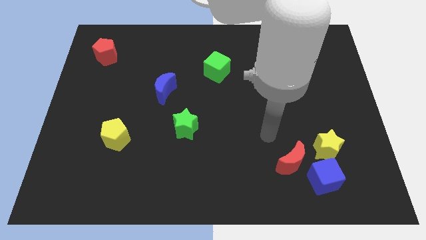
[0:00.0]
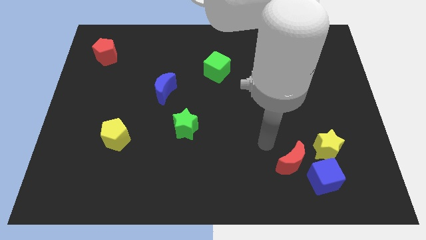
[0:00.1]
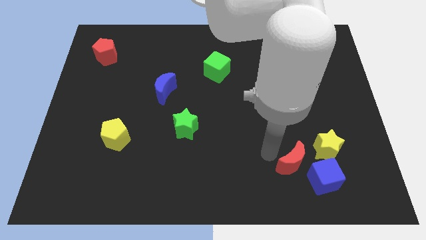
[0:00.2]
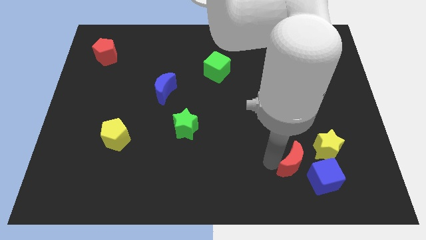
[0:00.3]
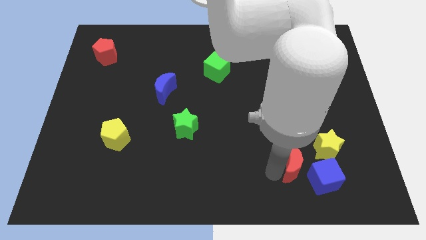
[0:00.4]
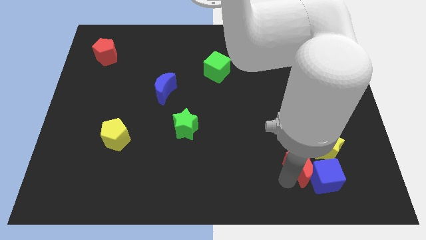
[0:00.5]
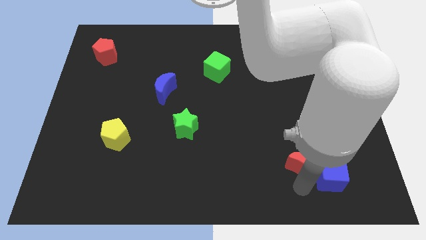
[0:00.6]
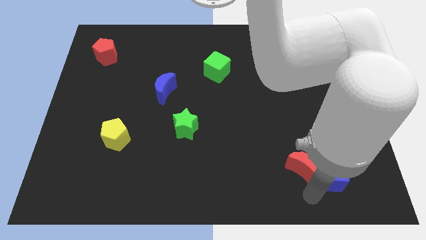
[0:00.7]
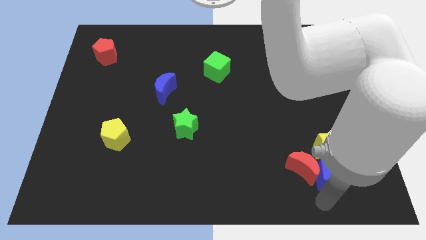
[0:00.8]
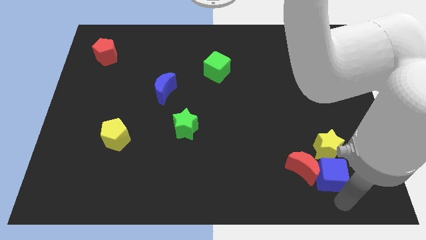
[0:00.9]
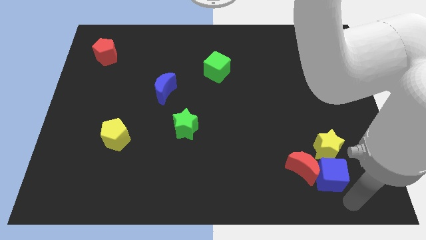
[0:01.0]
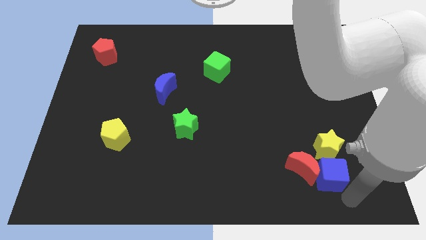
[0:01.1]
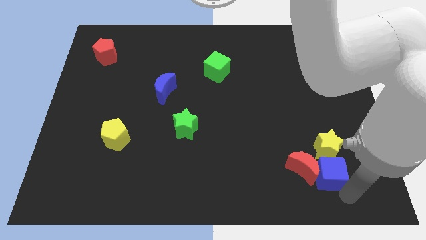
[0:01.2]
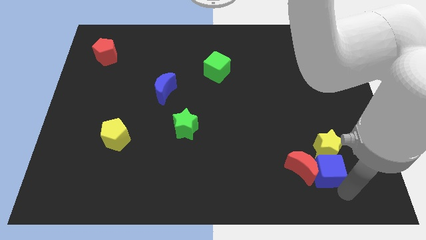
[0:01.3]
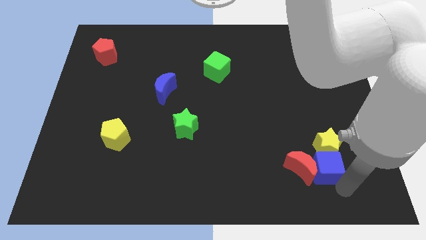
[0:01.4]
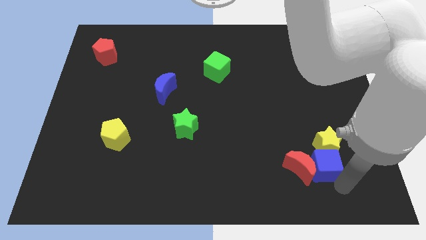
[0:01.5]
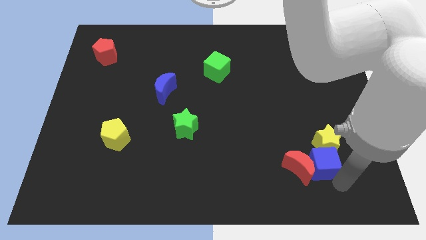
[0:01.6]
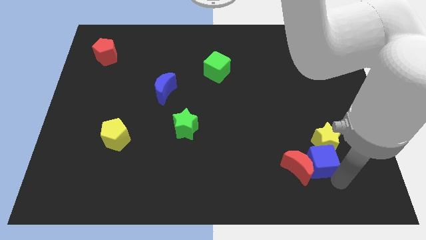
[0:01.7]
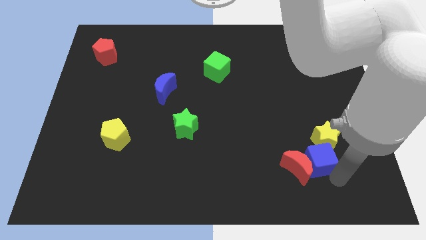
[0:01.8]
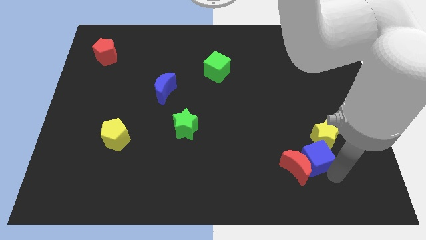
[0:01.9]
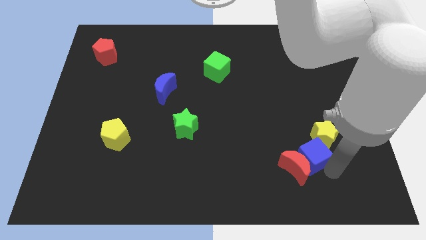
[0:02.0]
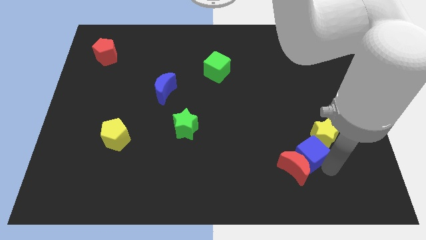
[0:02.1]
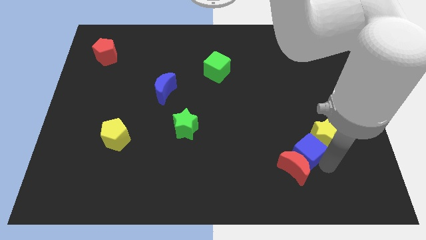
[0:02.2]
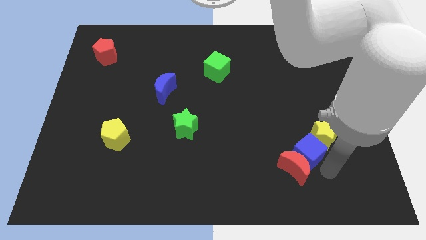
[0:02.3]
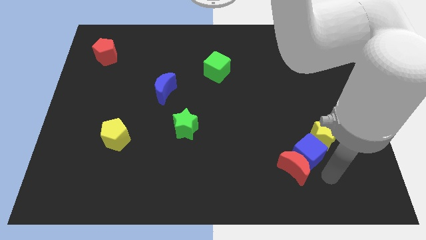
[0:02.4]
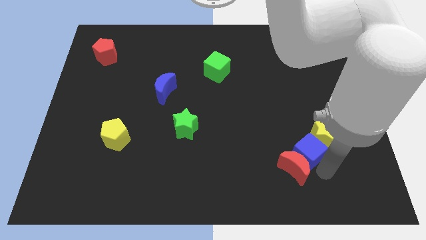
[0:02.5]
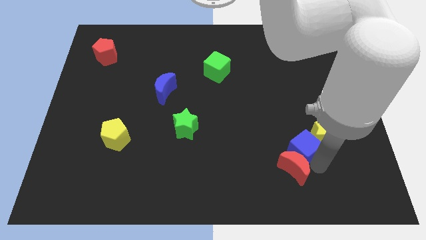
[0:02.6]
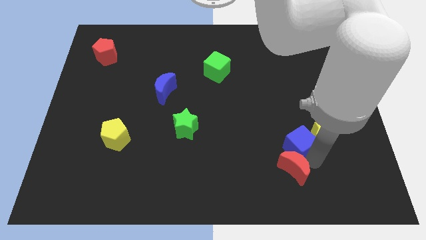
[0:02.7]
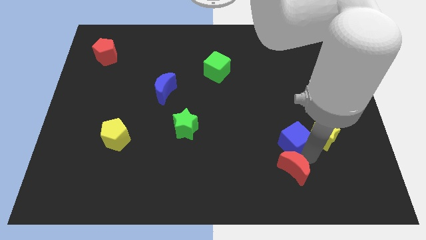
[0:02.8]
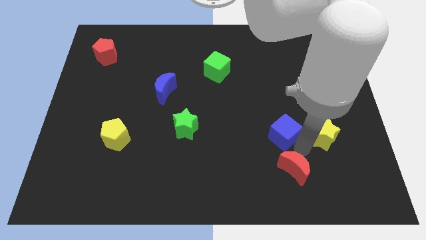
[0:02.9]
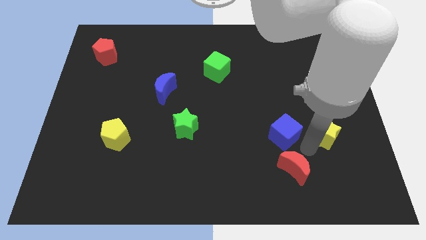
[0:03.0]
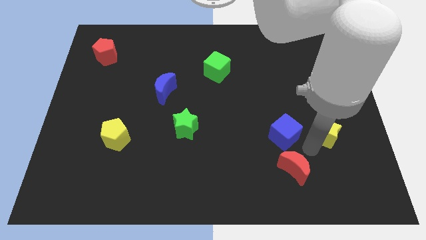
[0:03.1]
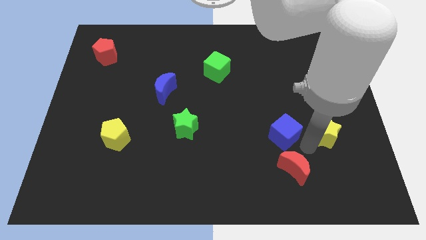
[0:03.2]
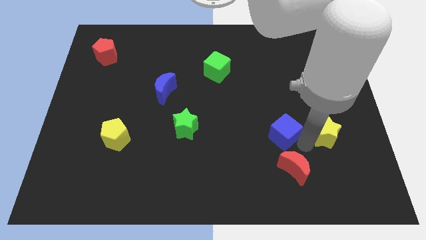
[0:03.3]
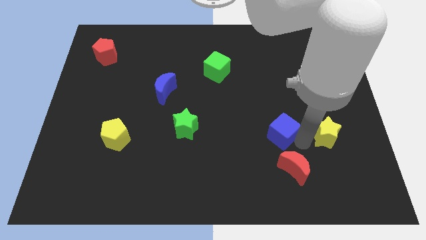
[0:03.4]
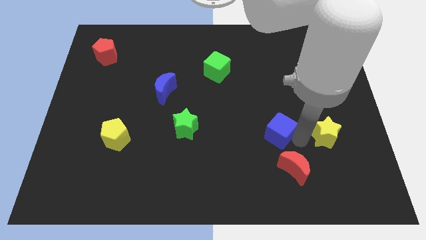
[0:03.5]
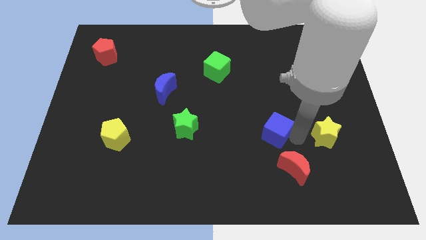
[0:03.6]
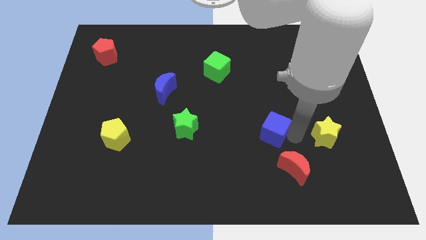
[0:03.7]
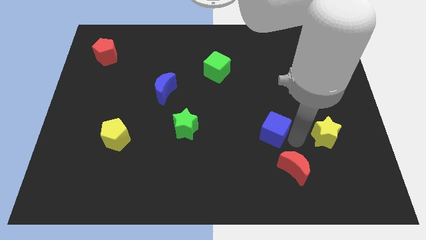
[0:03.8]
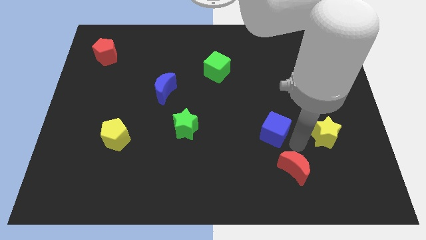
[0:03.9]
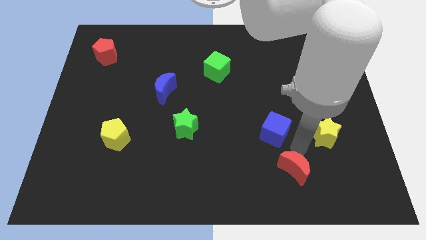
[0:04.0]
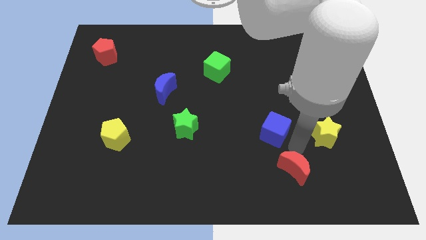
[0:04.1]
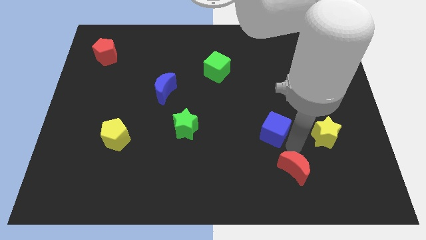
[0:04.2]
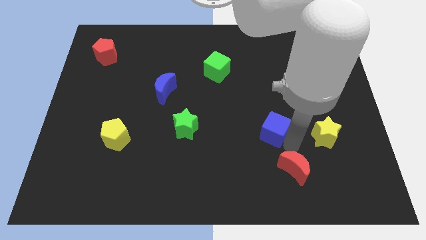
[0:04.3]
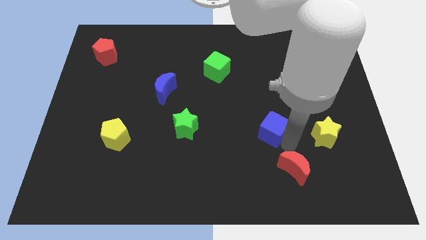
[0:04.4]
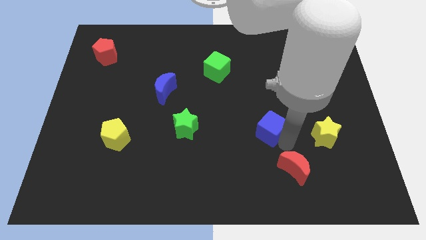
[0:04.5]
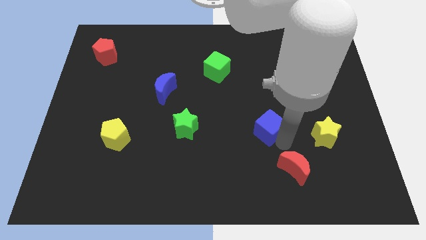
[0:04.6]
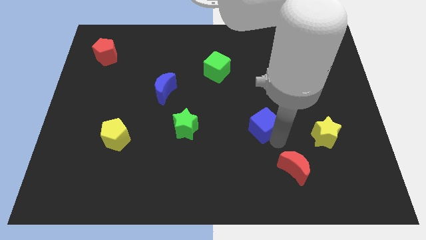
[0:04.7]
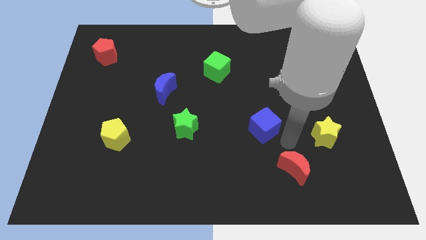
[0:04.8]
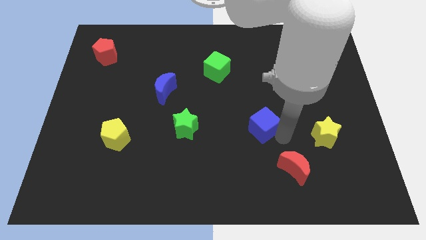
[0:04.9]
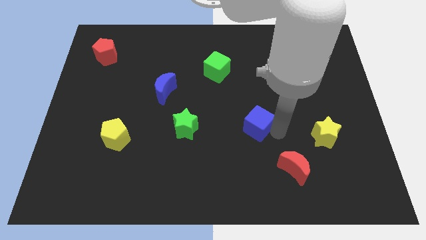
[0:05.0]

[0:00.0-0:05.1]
slide the blue cube to the middle

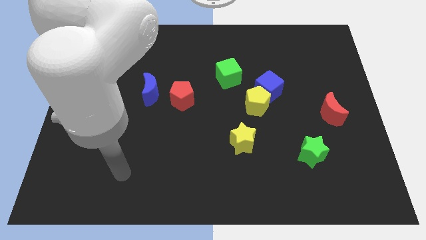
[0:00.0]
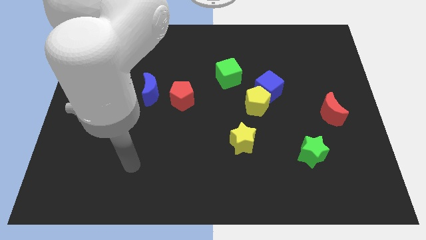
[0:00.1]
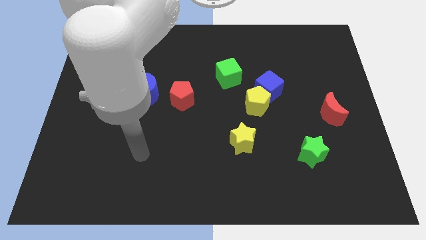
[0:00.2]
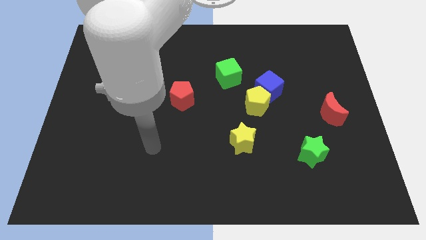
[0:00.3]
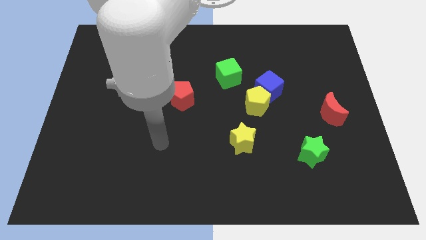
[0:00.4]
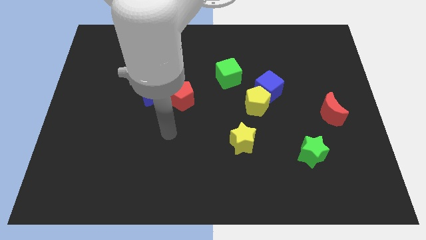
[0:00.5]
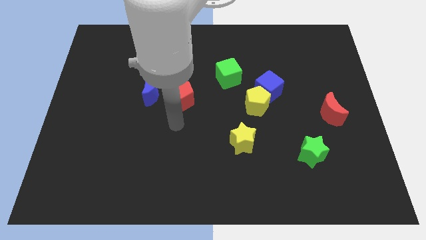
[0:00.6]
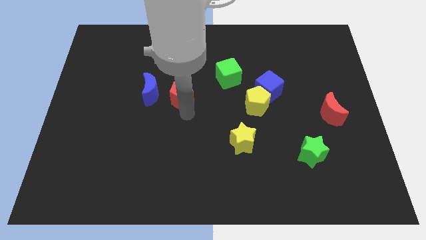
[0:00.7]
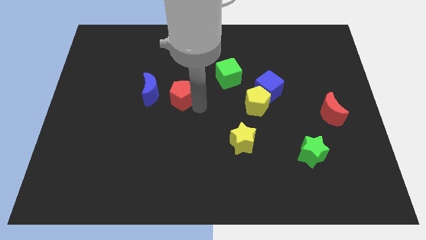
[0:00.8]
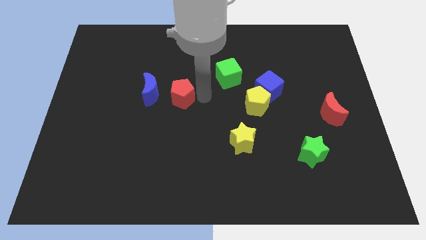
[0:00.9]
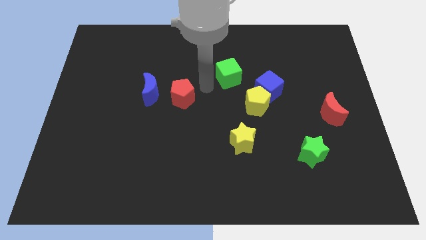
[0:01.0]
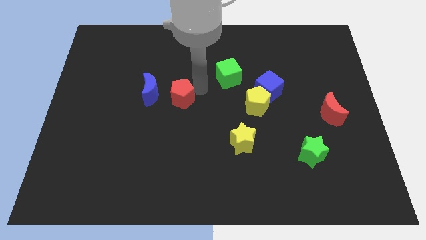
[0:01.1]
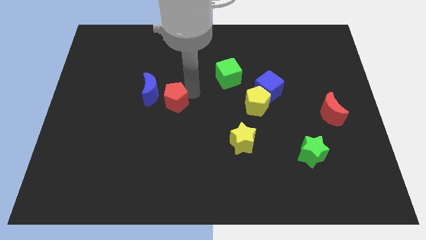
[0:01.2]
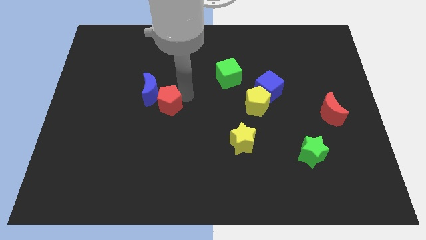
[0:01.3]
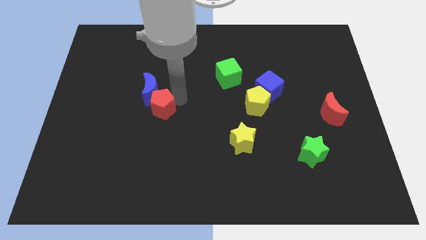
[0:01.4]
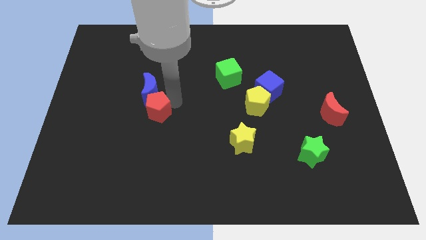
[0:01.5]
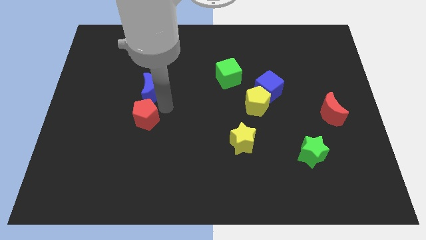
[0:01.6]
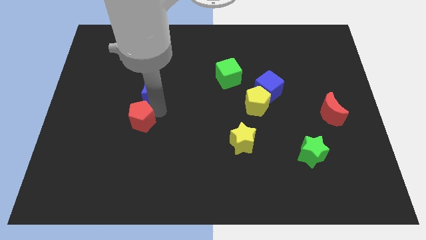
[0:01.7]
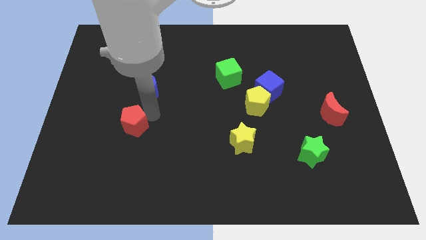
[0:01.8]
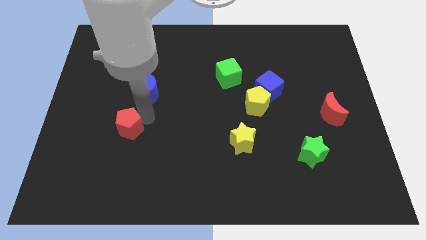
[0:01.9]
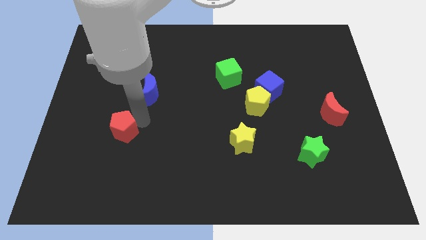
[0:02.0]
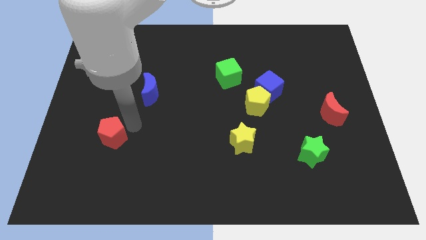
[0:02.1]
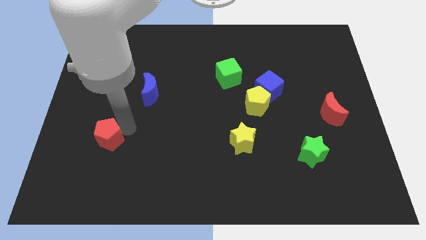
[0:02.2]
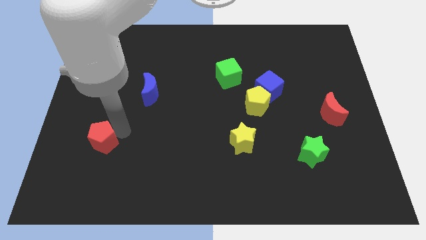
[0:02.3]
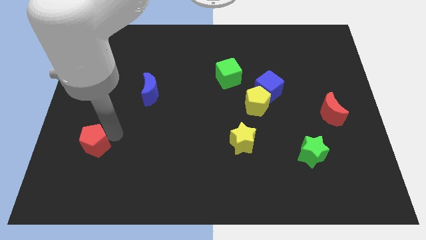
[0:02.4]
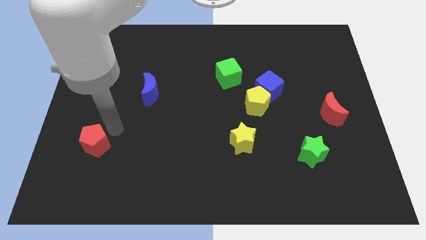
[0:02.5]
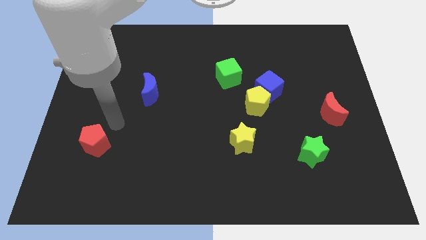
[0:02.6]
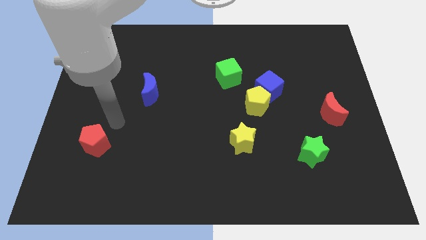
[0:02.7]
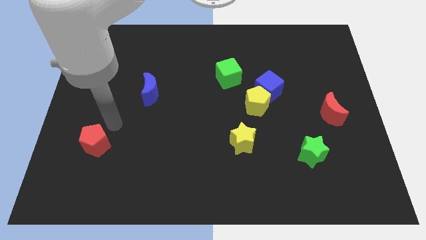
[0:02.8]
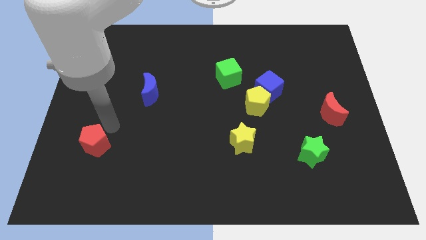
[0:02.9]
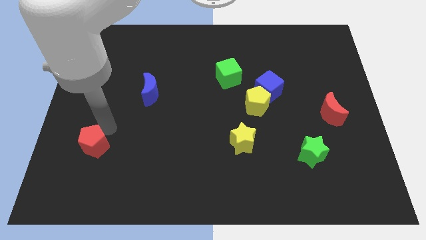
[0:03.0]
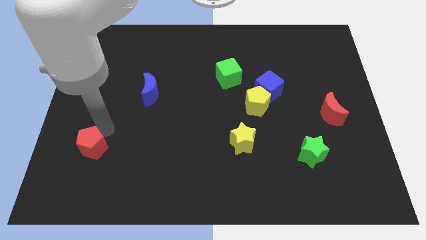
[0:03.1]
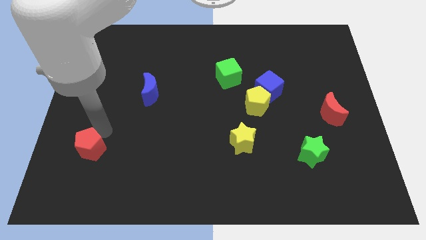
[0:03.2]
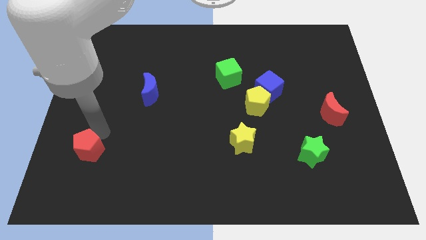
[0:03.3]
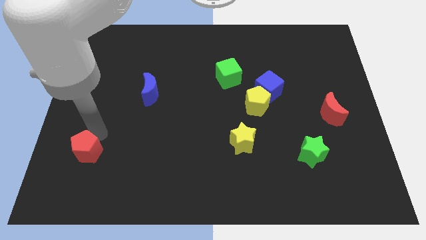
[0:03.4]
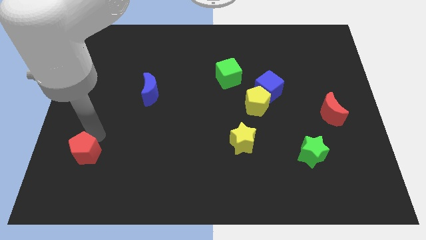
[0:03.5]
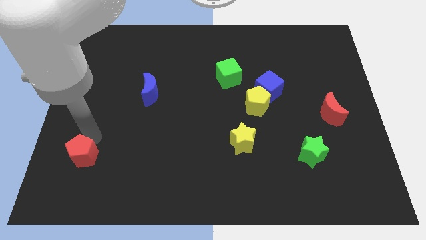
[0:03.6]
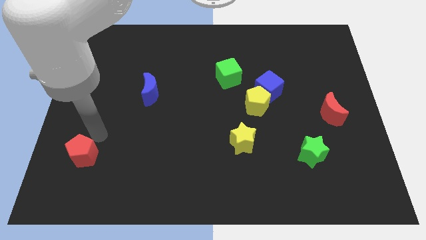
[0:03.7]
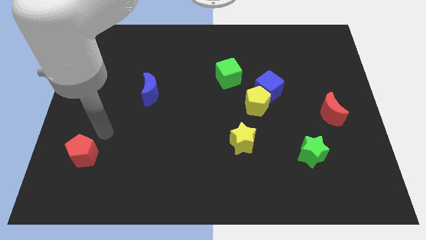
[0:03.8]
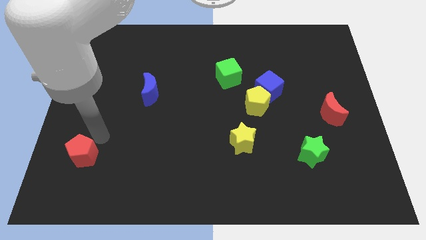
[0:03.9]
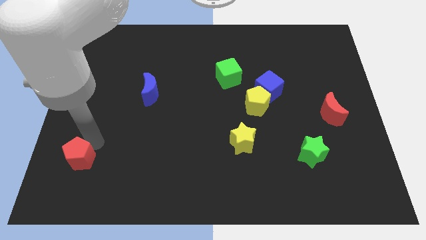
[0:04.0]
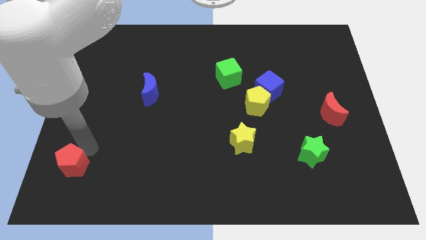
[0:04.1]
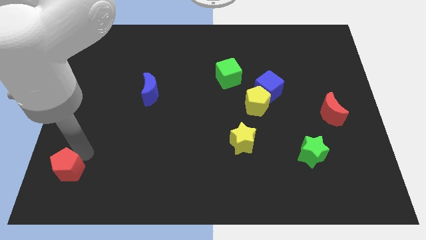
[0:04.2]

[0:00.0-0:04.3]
move the red pentagon to the bottom left of the board
